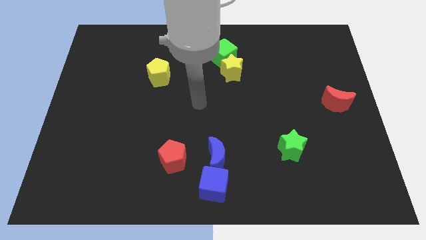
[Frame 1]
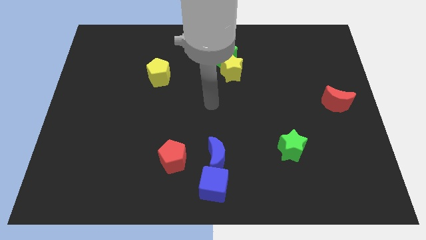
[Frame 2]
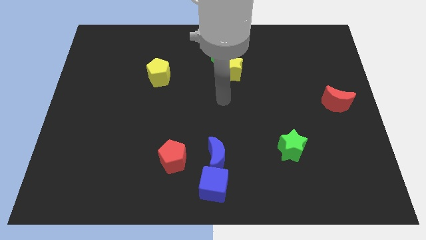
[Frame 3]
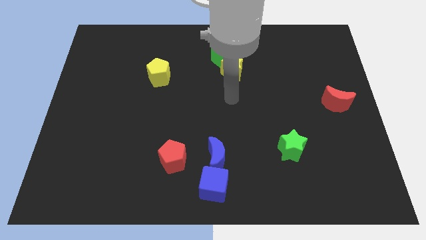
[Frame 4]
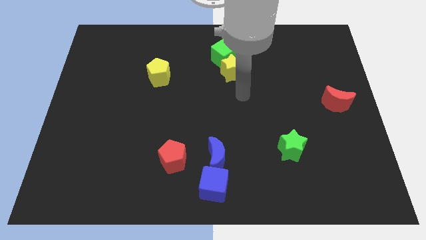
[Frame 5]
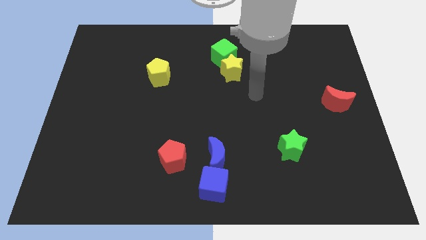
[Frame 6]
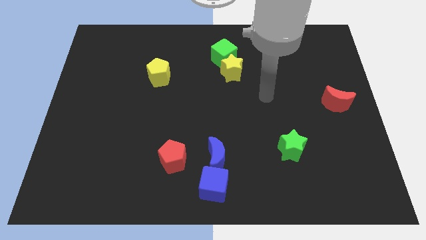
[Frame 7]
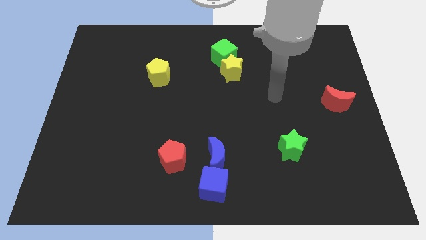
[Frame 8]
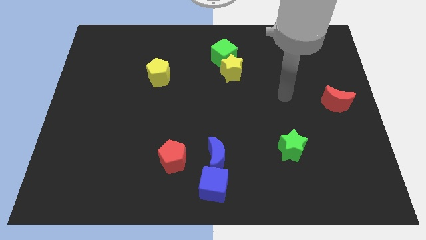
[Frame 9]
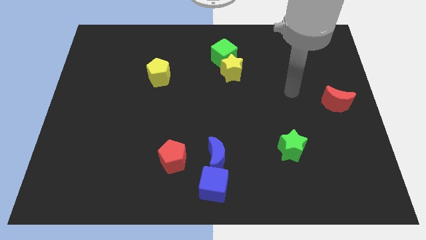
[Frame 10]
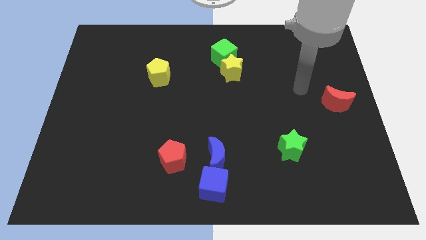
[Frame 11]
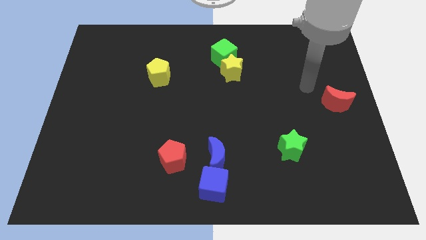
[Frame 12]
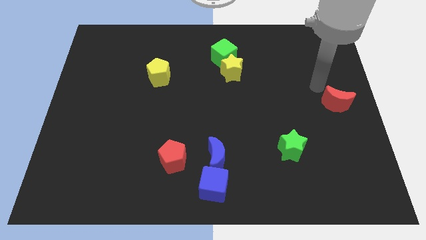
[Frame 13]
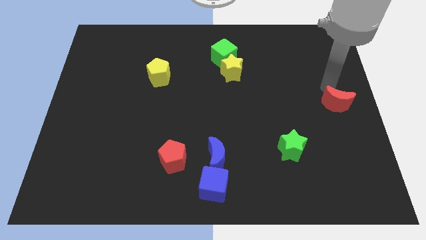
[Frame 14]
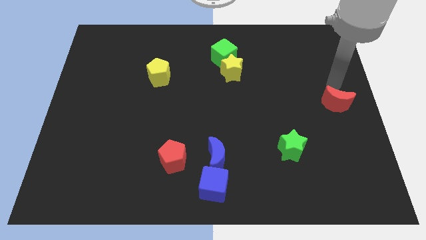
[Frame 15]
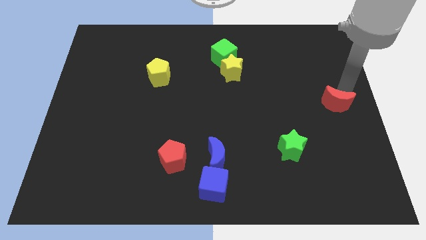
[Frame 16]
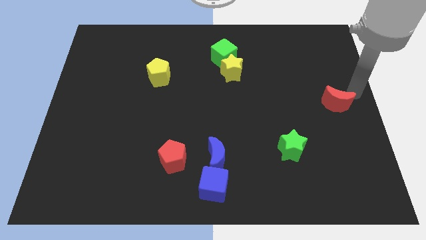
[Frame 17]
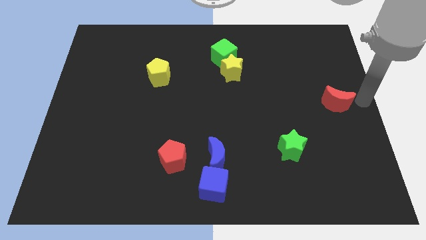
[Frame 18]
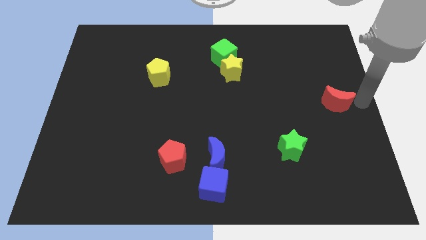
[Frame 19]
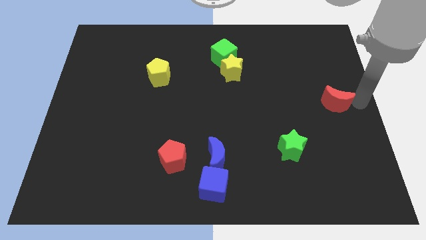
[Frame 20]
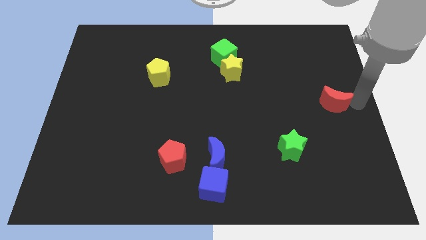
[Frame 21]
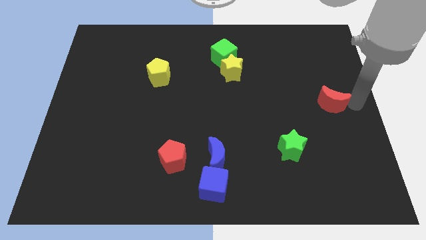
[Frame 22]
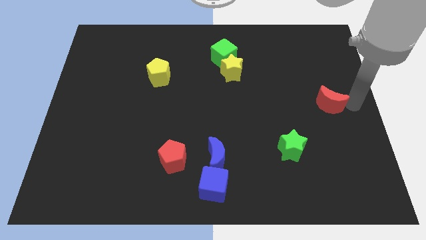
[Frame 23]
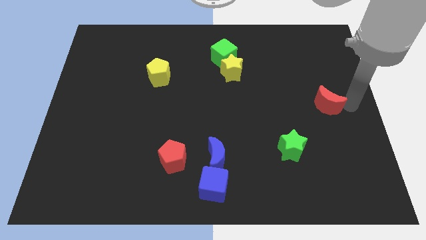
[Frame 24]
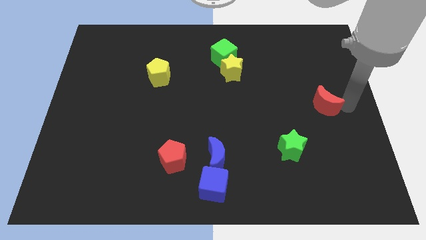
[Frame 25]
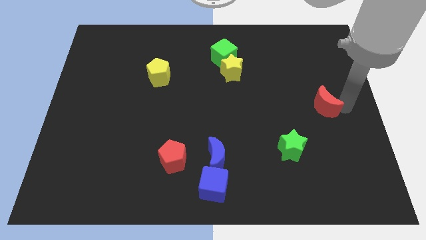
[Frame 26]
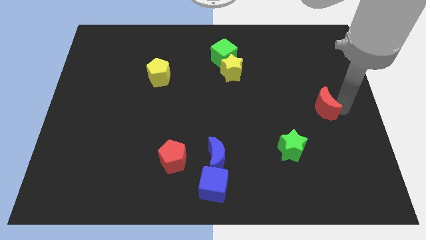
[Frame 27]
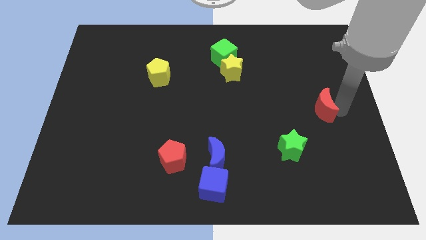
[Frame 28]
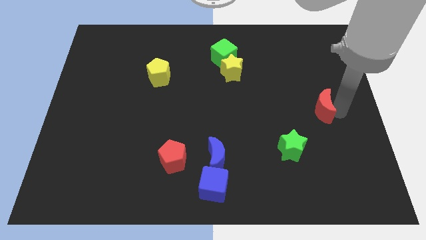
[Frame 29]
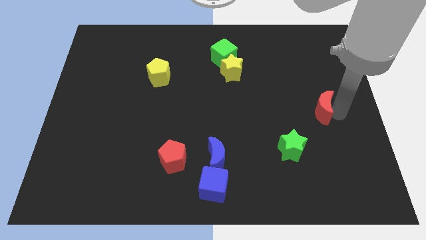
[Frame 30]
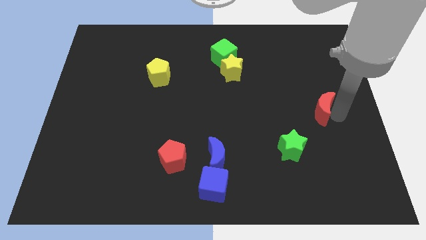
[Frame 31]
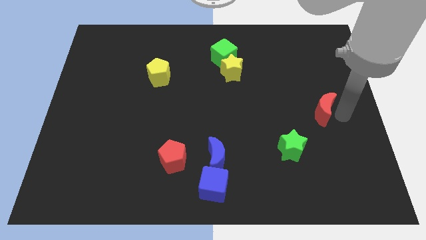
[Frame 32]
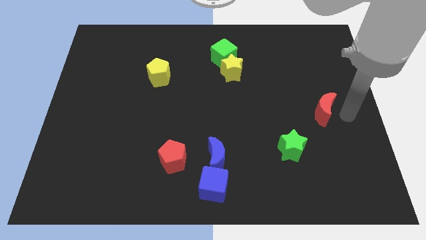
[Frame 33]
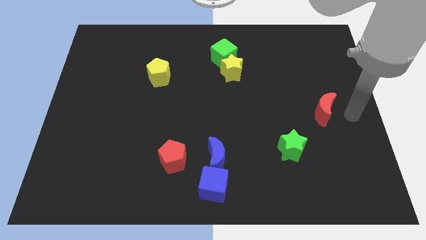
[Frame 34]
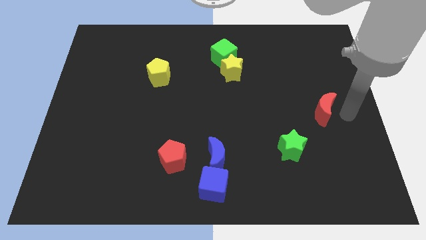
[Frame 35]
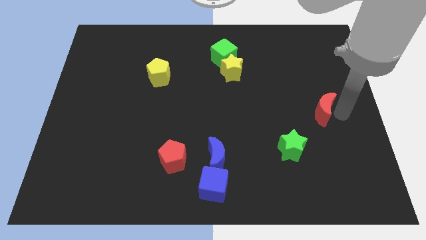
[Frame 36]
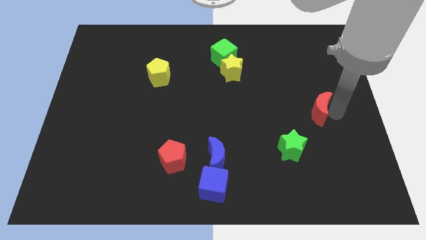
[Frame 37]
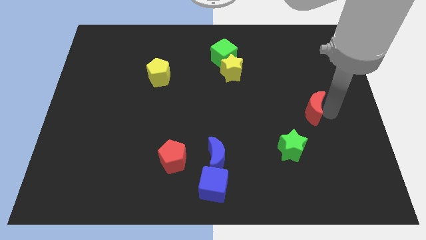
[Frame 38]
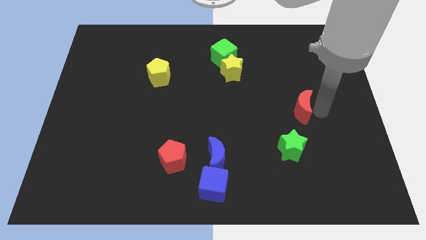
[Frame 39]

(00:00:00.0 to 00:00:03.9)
push the red moon a little bit to the left

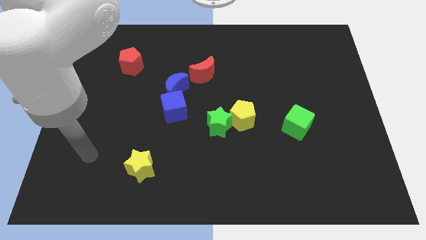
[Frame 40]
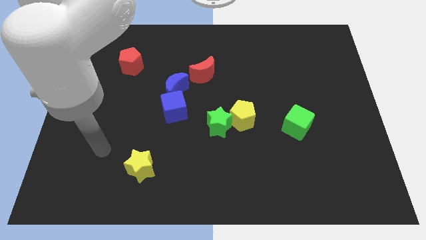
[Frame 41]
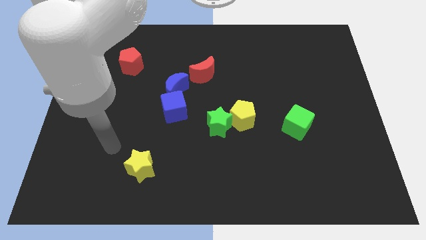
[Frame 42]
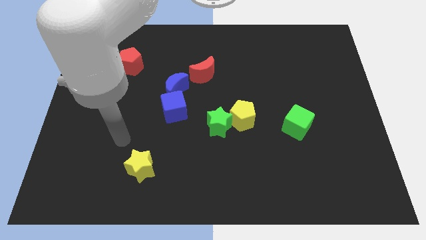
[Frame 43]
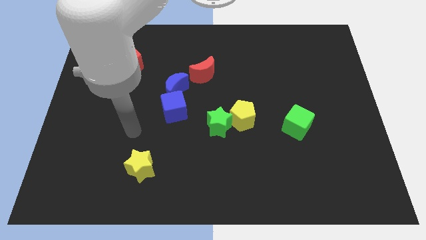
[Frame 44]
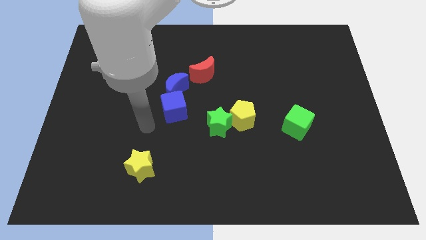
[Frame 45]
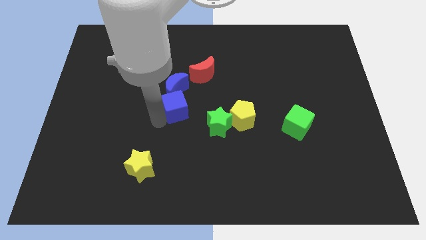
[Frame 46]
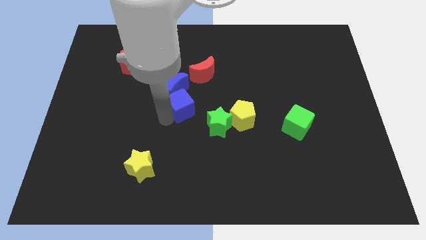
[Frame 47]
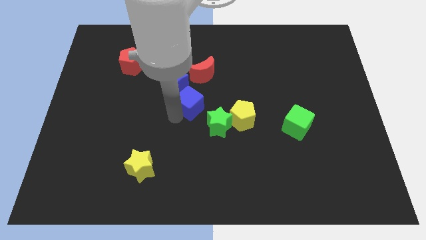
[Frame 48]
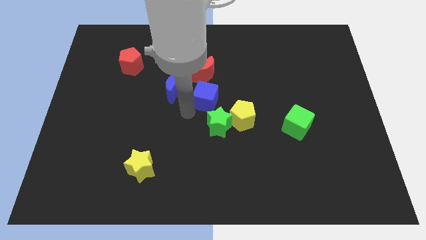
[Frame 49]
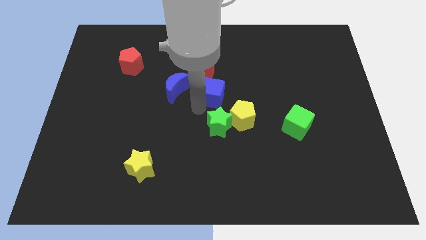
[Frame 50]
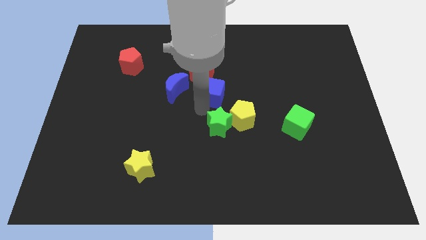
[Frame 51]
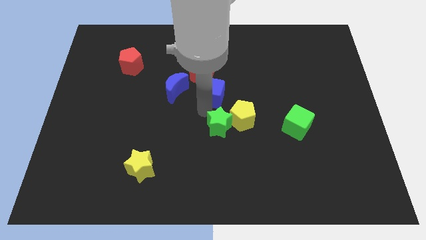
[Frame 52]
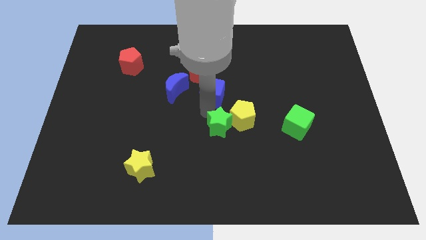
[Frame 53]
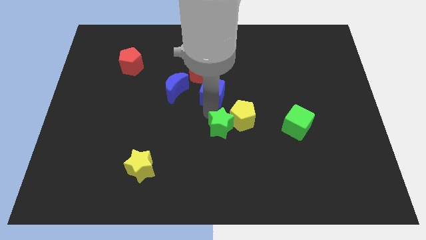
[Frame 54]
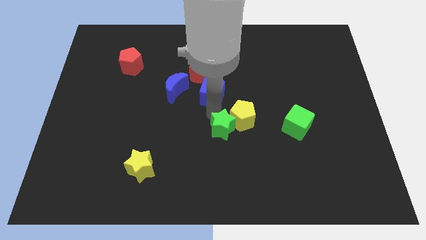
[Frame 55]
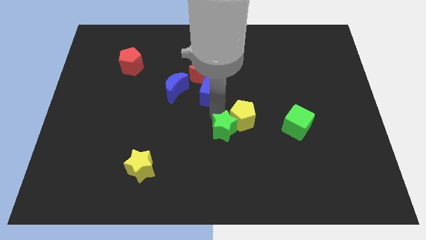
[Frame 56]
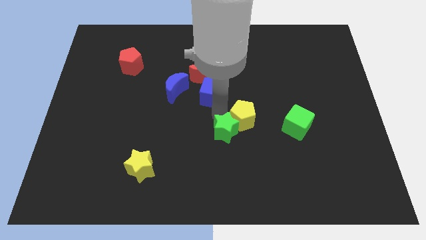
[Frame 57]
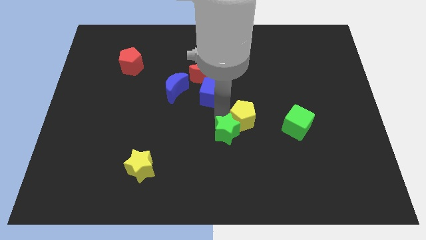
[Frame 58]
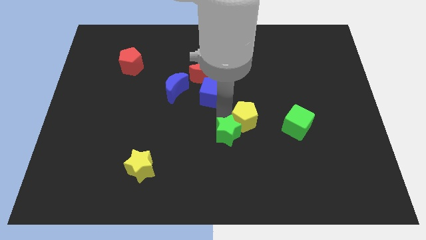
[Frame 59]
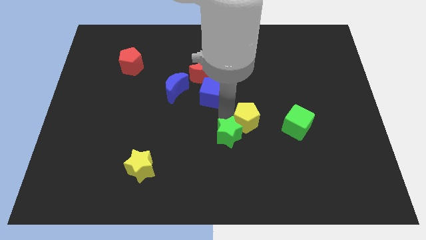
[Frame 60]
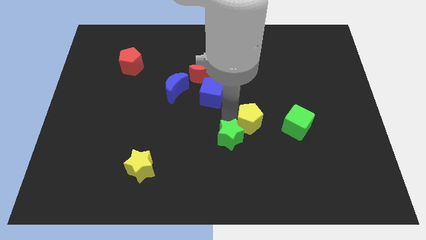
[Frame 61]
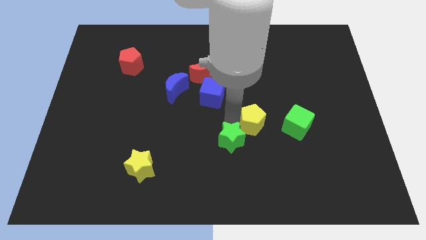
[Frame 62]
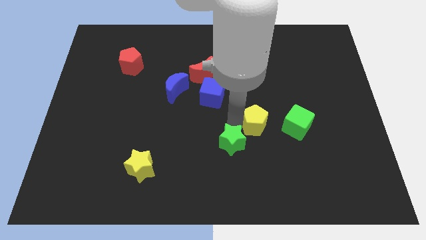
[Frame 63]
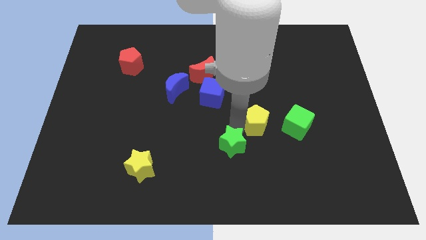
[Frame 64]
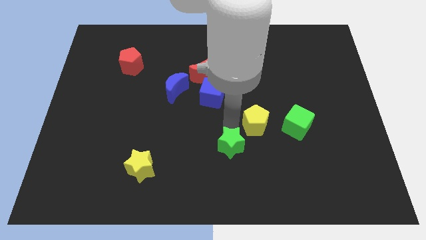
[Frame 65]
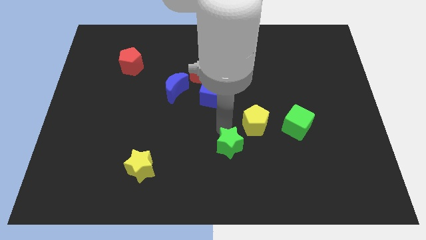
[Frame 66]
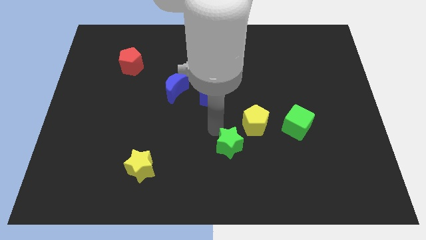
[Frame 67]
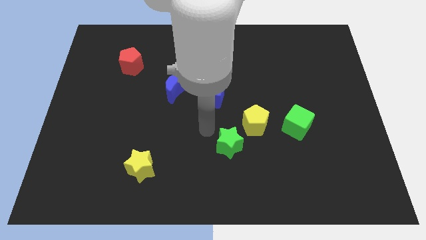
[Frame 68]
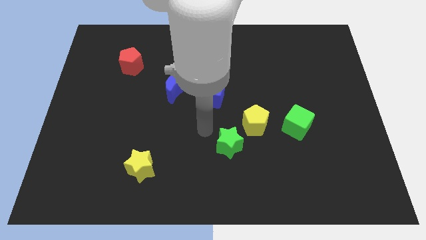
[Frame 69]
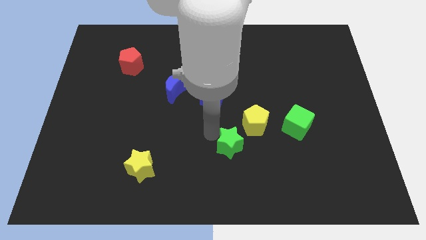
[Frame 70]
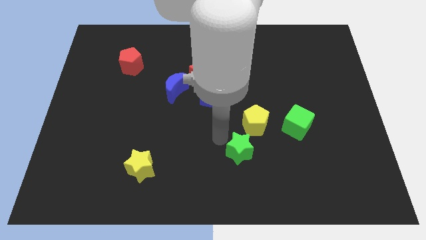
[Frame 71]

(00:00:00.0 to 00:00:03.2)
move the green star a little downwards and to the right

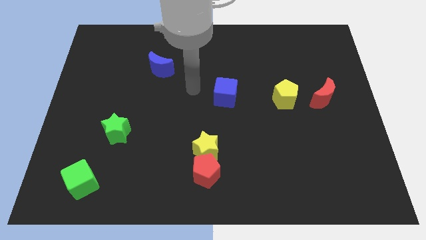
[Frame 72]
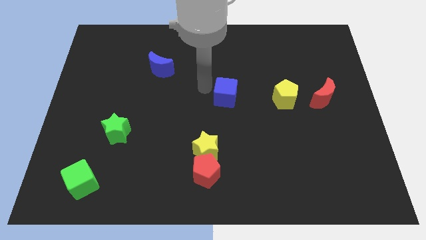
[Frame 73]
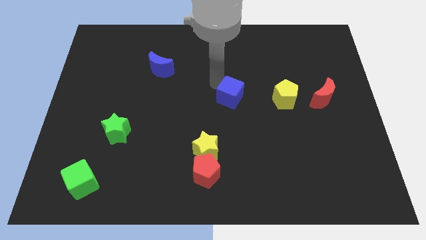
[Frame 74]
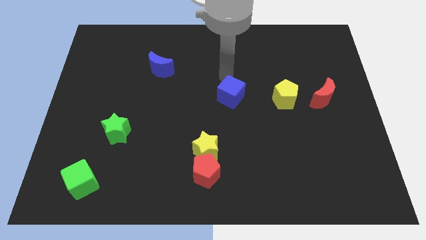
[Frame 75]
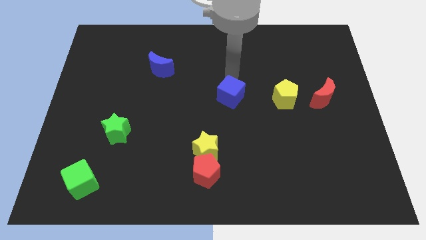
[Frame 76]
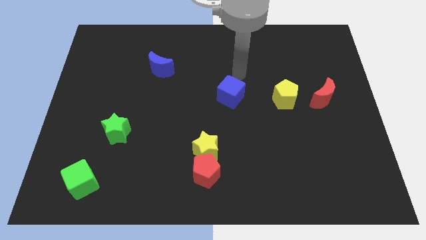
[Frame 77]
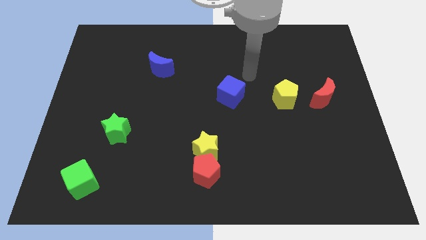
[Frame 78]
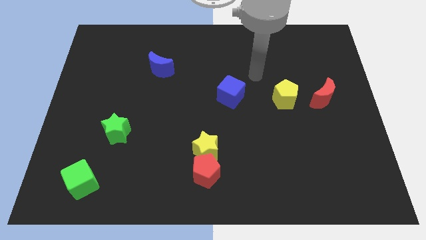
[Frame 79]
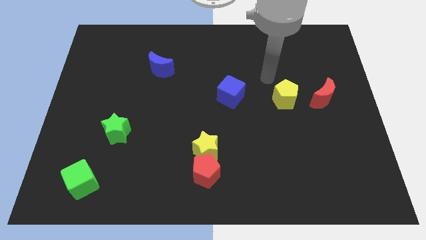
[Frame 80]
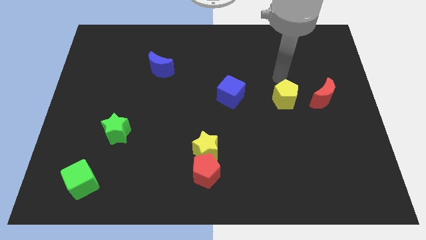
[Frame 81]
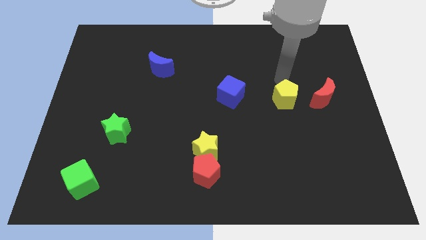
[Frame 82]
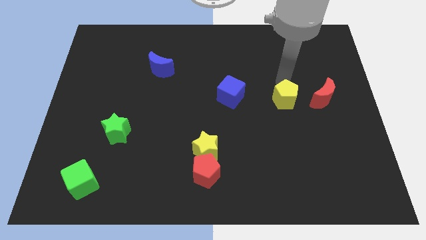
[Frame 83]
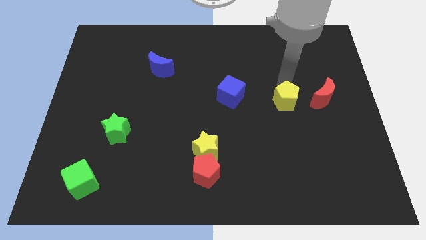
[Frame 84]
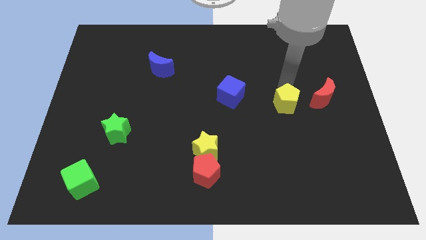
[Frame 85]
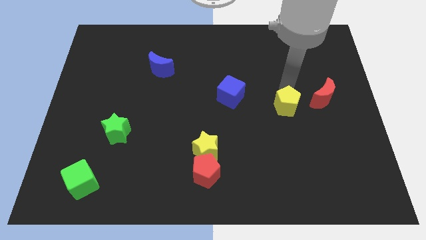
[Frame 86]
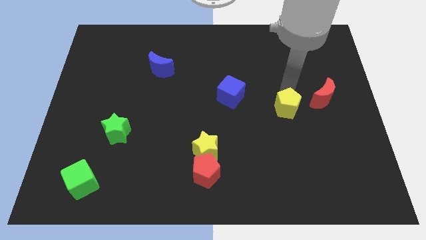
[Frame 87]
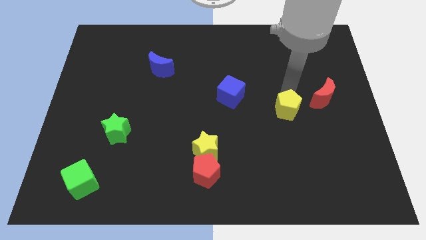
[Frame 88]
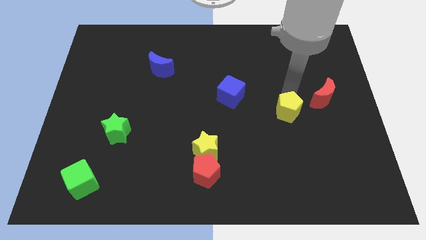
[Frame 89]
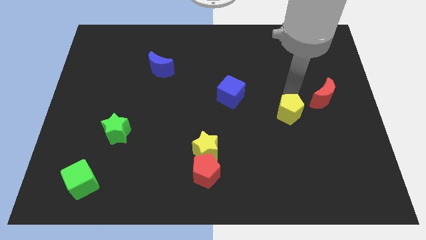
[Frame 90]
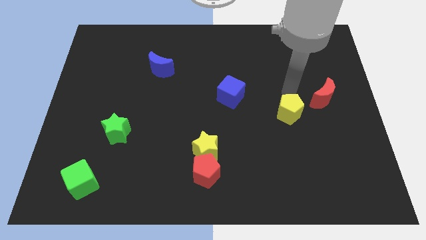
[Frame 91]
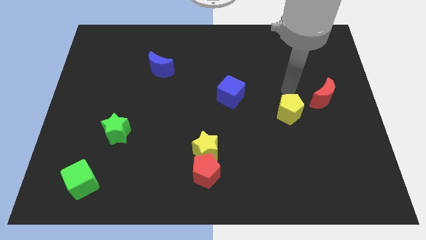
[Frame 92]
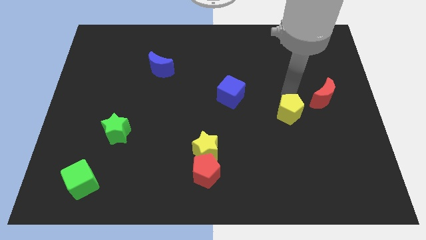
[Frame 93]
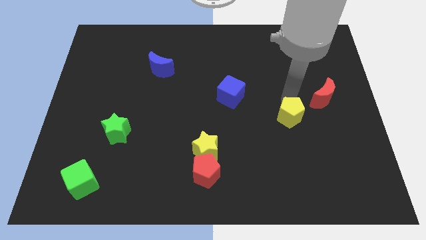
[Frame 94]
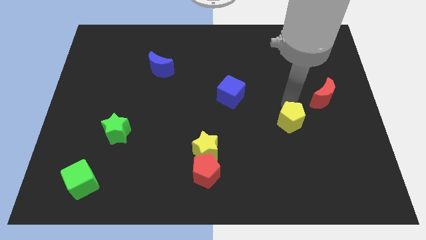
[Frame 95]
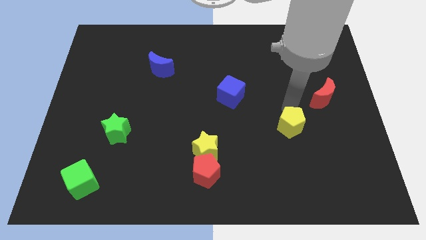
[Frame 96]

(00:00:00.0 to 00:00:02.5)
move the yellow pentagon slightly down
